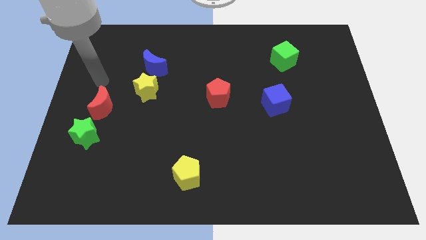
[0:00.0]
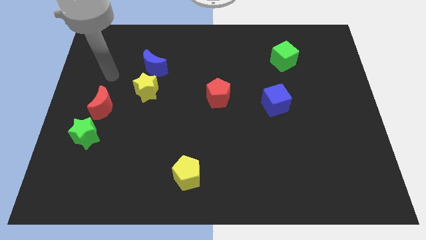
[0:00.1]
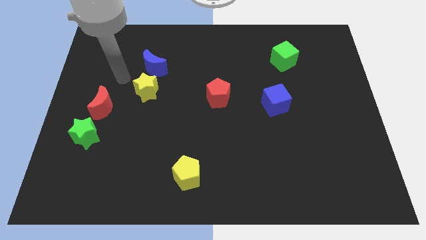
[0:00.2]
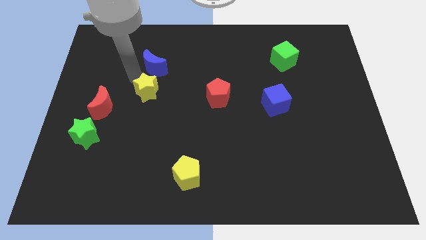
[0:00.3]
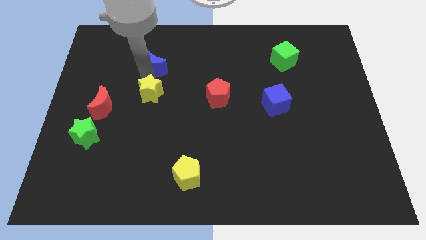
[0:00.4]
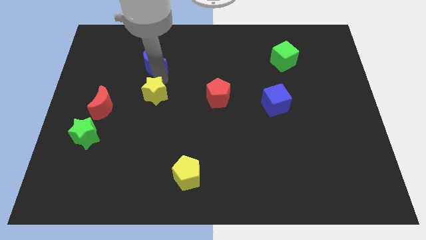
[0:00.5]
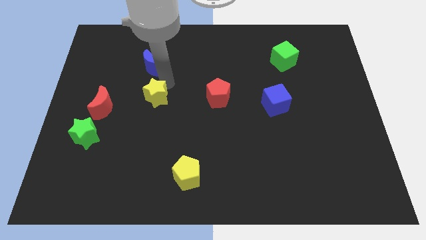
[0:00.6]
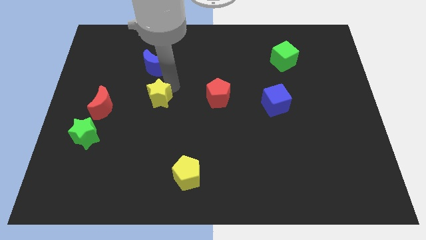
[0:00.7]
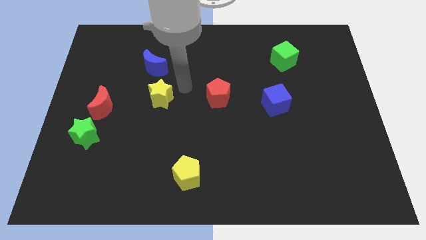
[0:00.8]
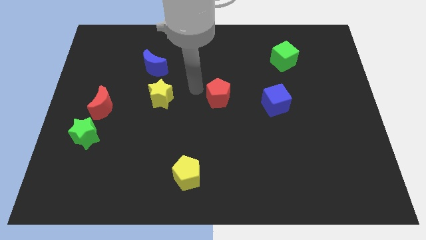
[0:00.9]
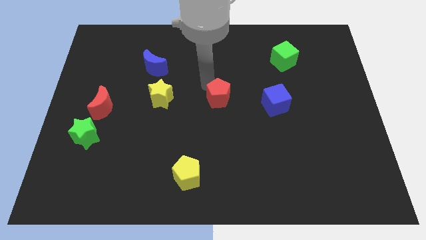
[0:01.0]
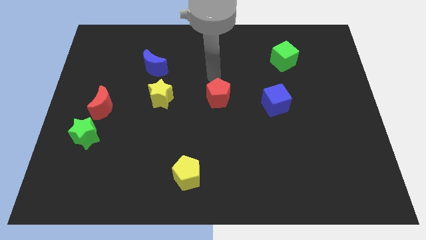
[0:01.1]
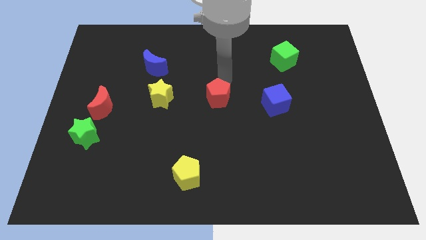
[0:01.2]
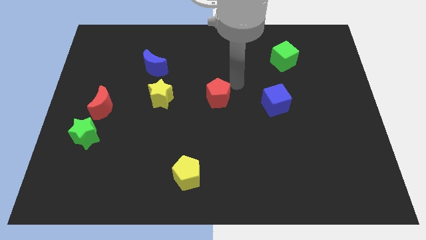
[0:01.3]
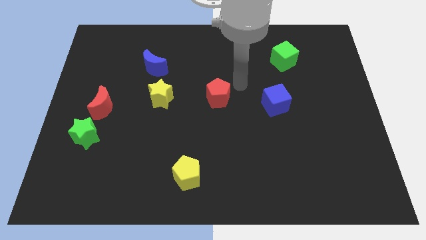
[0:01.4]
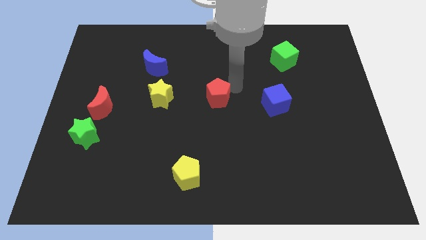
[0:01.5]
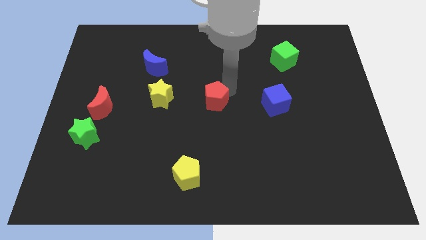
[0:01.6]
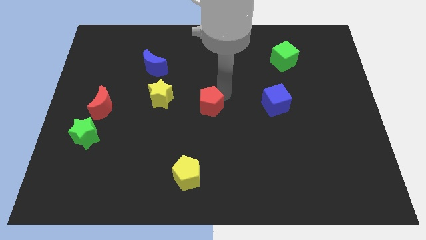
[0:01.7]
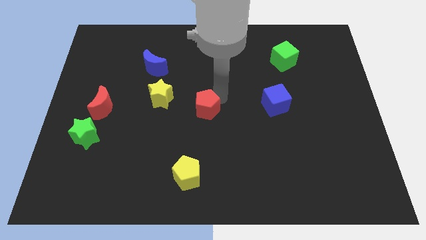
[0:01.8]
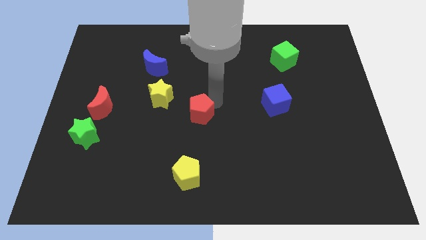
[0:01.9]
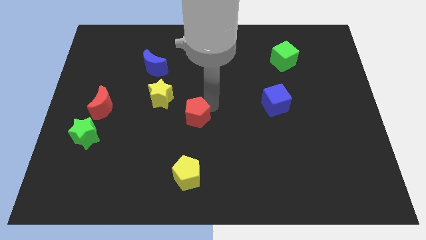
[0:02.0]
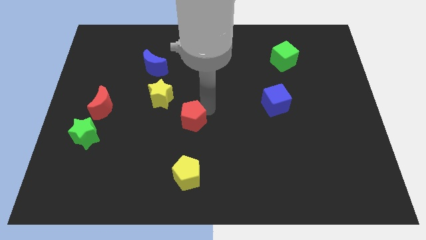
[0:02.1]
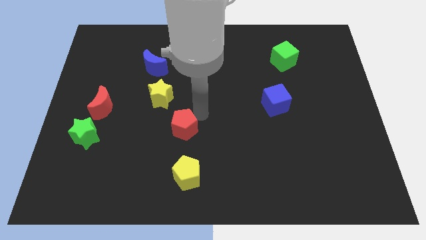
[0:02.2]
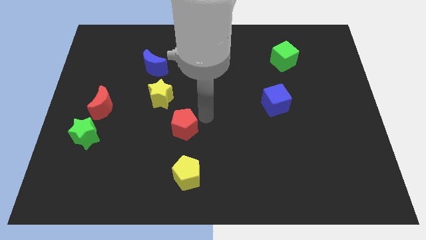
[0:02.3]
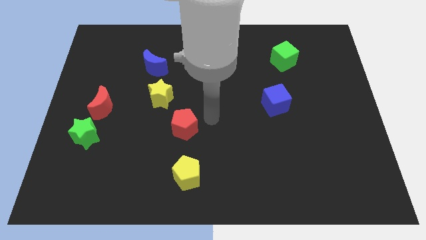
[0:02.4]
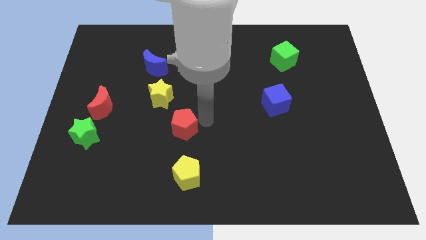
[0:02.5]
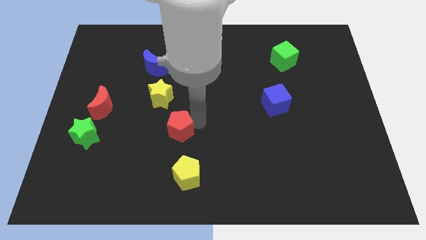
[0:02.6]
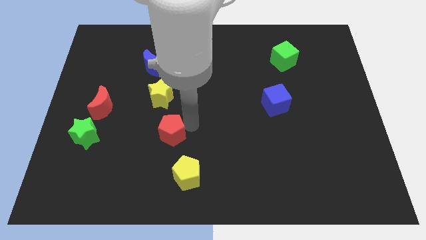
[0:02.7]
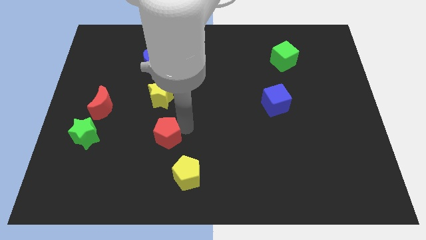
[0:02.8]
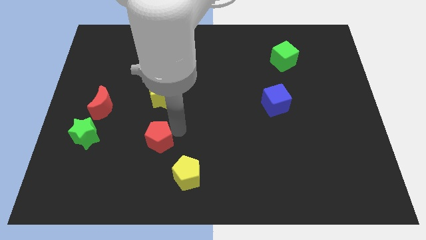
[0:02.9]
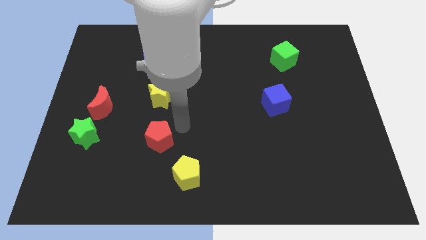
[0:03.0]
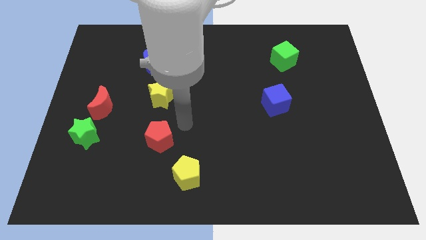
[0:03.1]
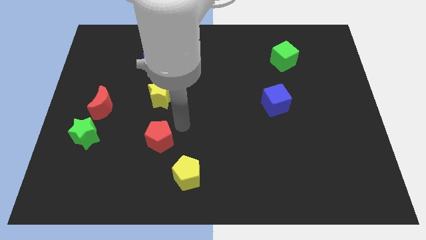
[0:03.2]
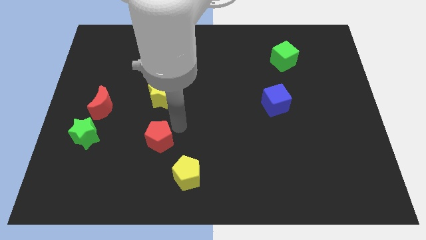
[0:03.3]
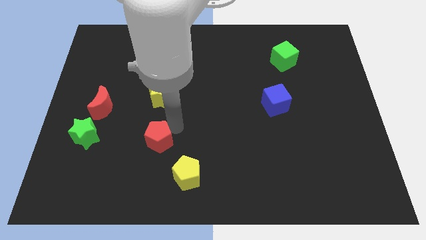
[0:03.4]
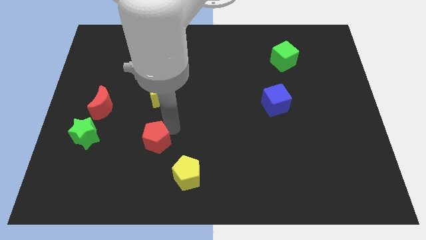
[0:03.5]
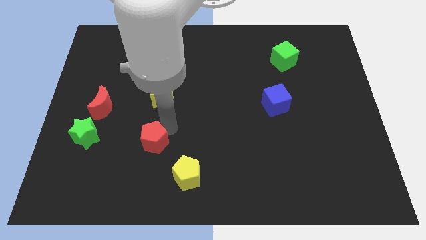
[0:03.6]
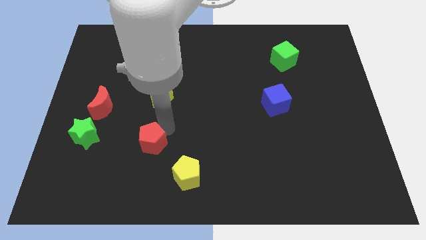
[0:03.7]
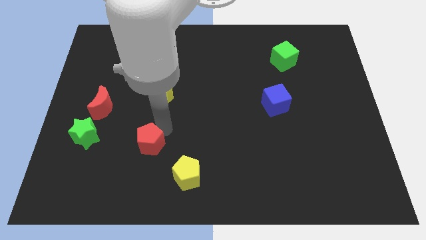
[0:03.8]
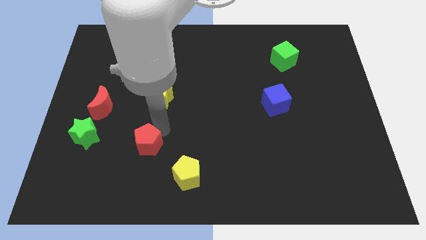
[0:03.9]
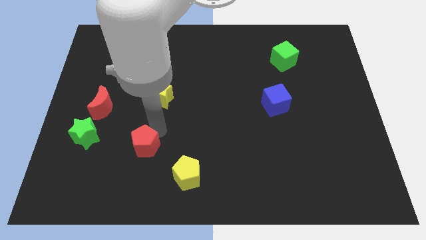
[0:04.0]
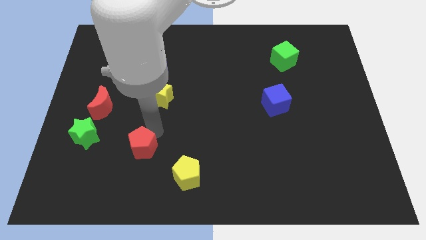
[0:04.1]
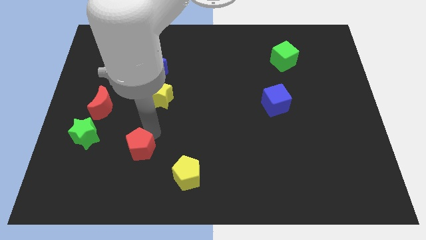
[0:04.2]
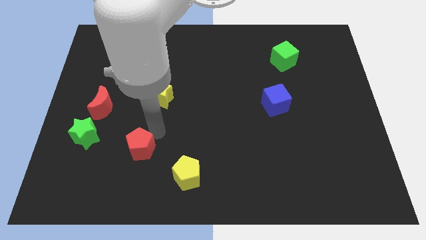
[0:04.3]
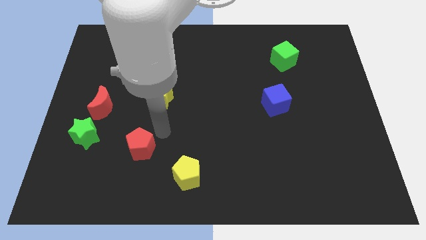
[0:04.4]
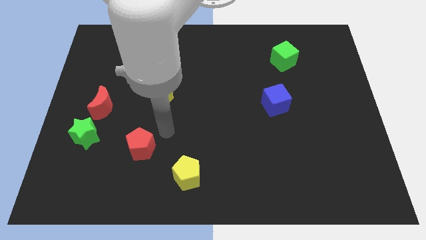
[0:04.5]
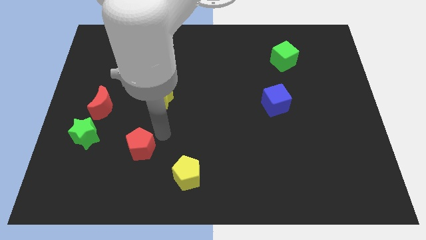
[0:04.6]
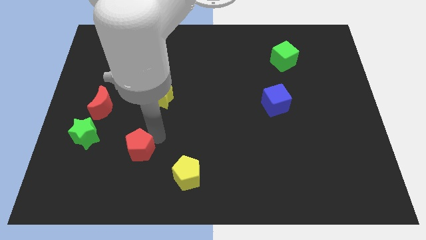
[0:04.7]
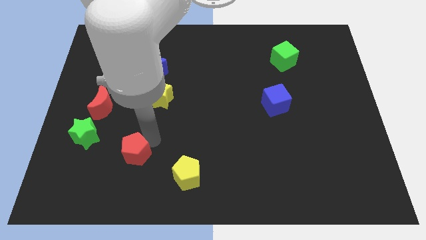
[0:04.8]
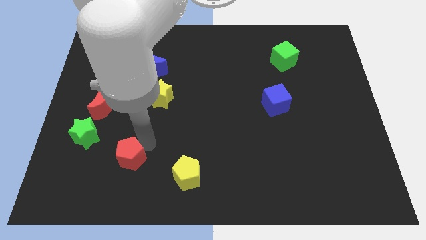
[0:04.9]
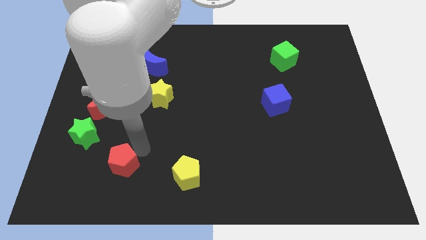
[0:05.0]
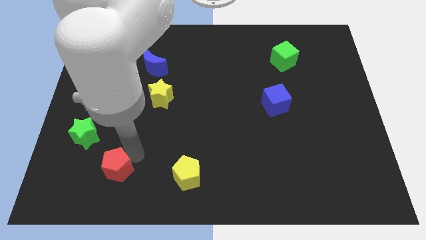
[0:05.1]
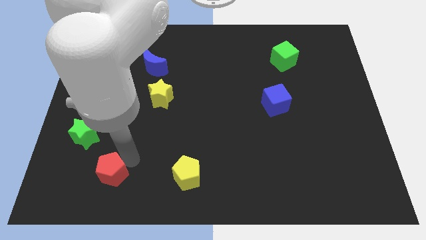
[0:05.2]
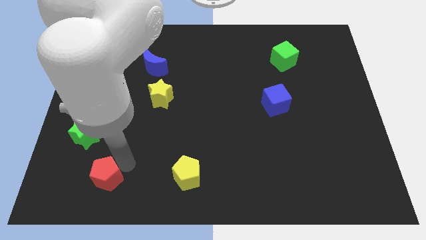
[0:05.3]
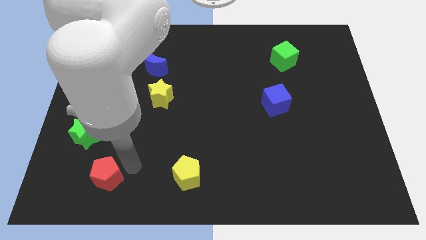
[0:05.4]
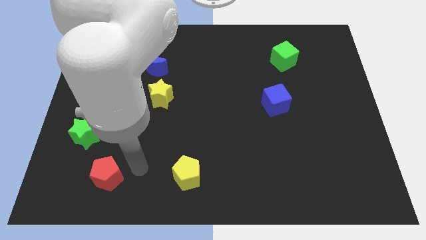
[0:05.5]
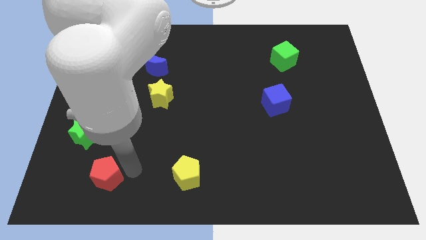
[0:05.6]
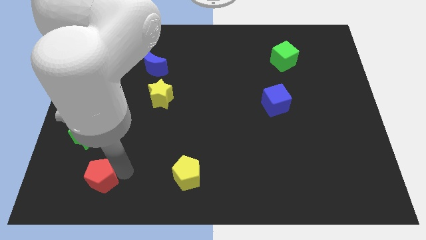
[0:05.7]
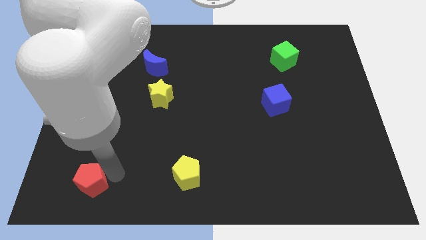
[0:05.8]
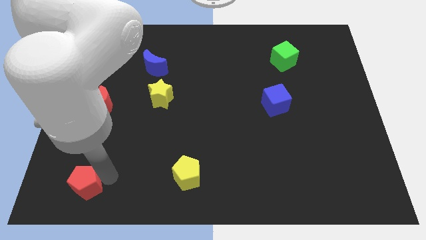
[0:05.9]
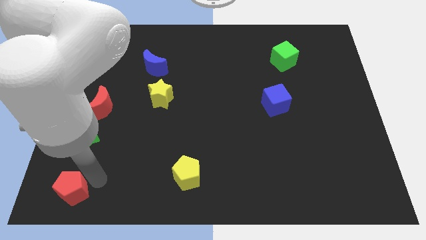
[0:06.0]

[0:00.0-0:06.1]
slide the red pentagon to the bottom left
